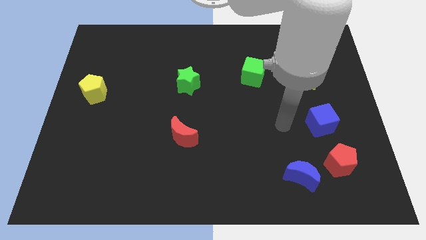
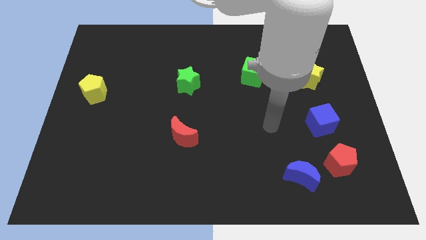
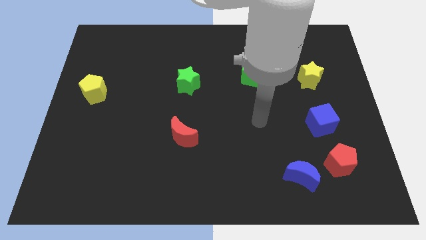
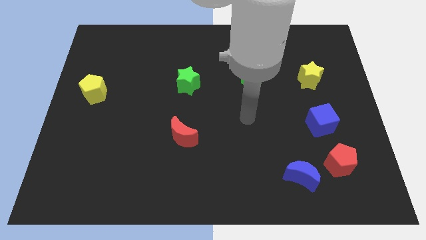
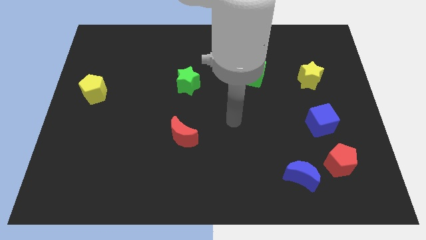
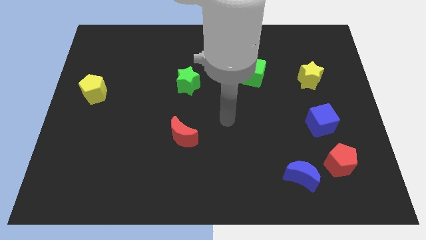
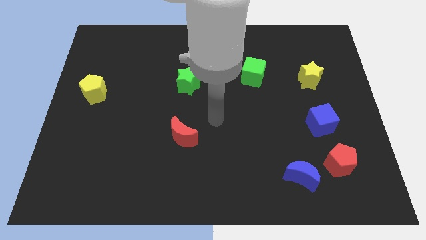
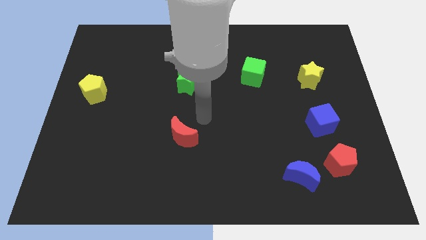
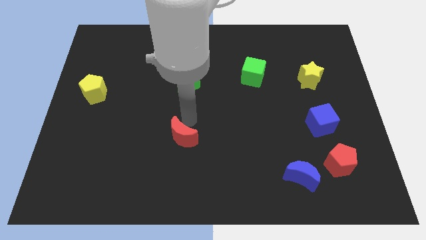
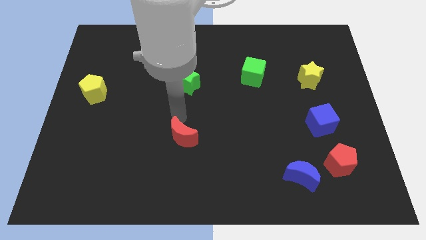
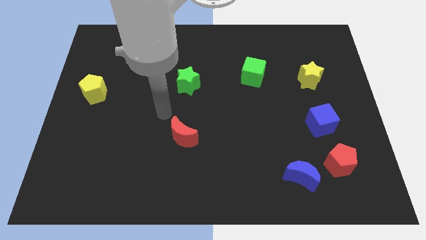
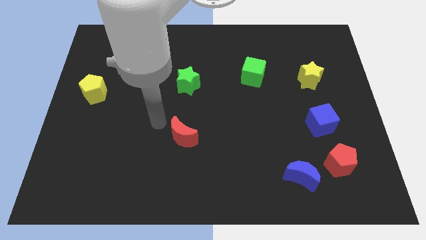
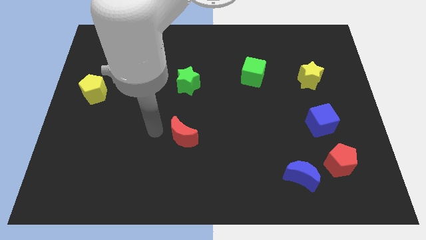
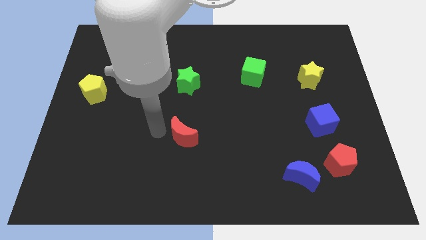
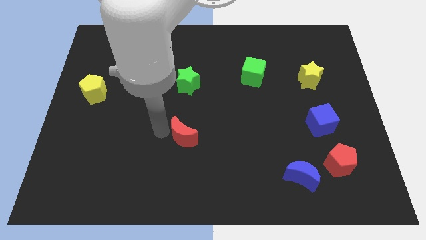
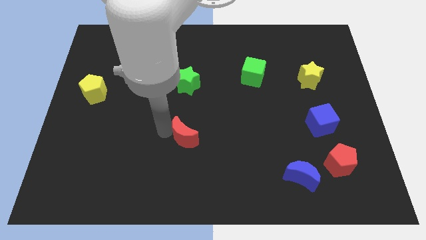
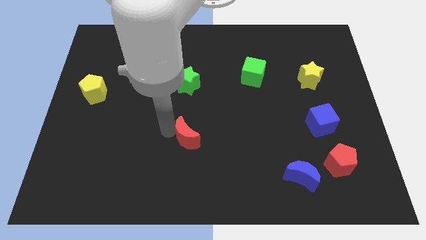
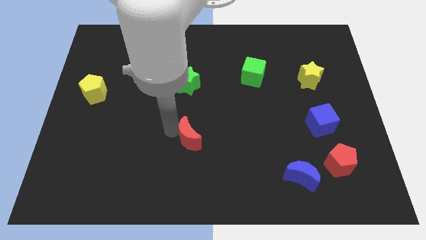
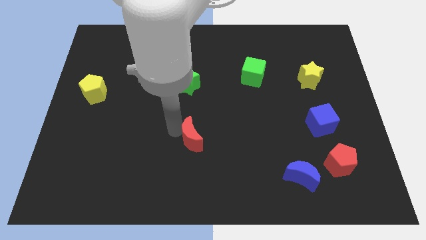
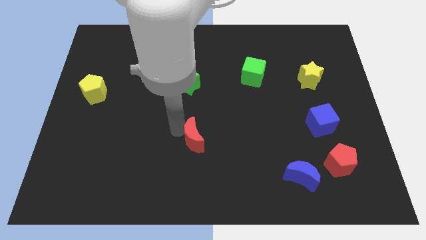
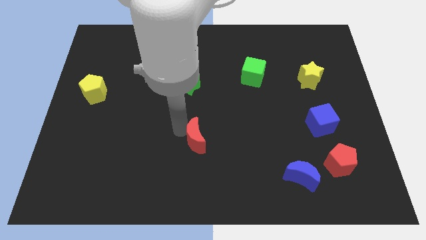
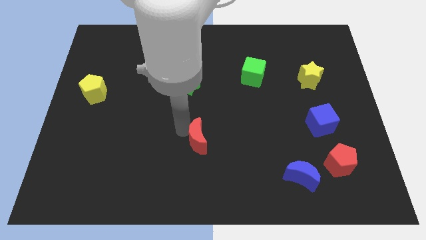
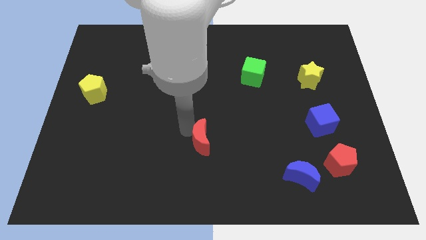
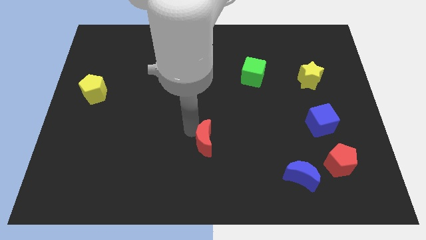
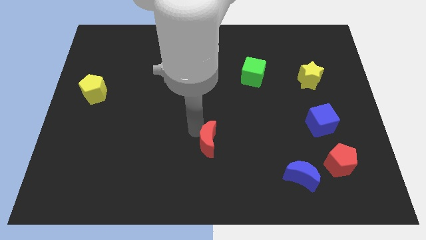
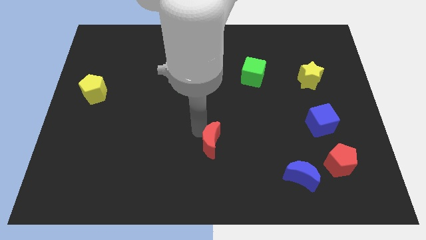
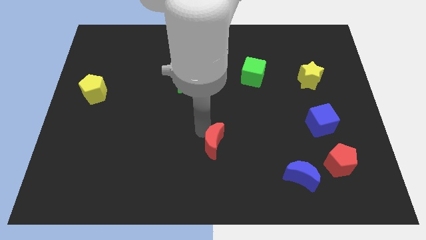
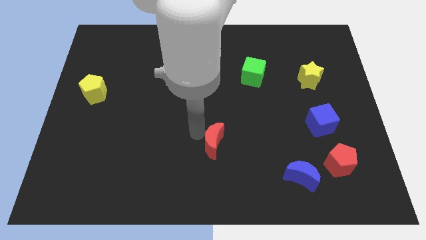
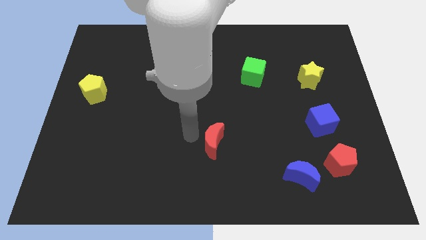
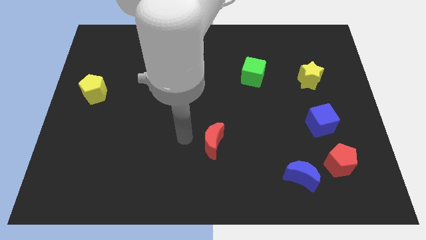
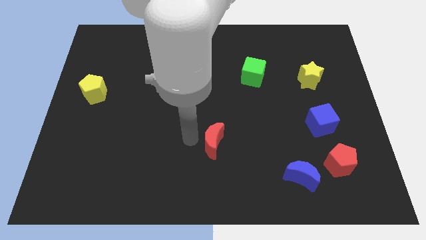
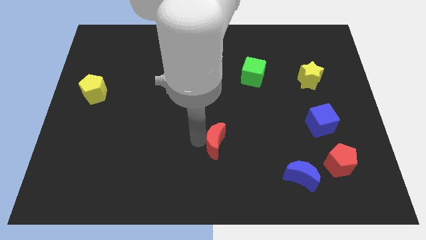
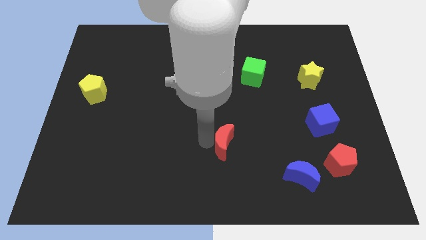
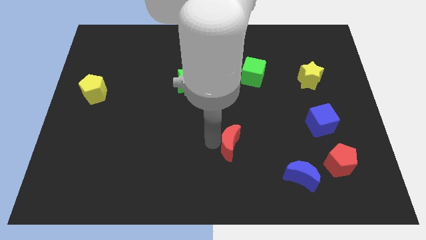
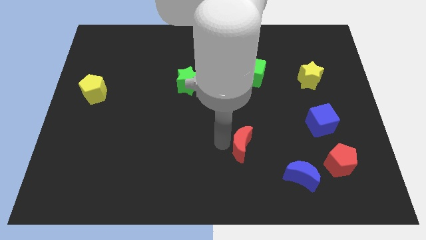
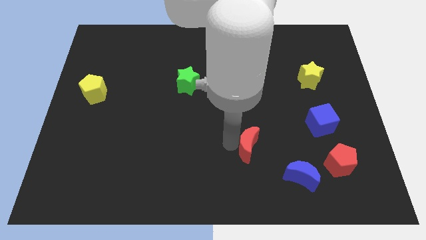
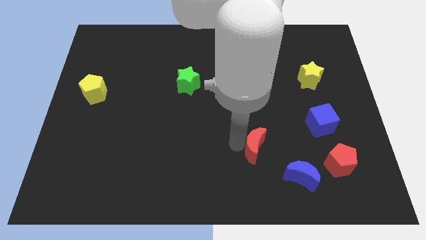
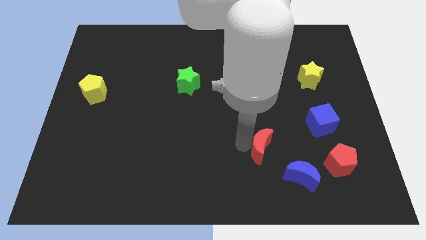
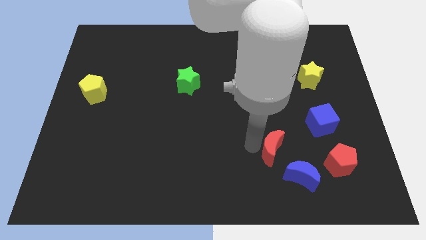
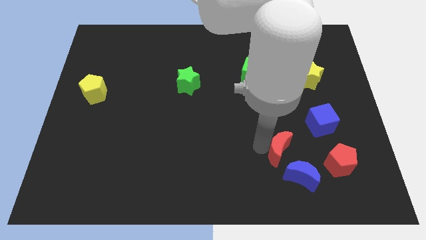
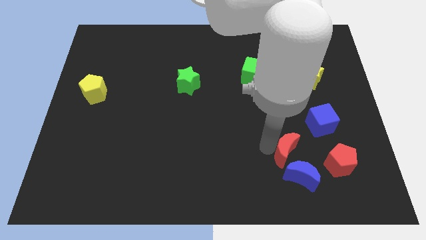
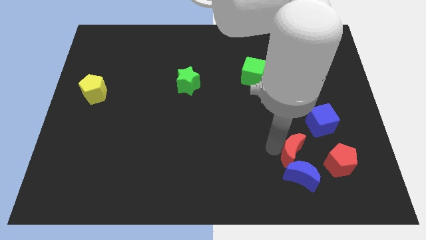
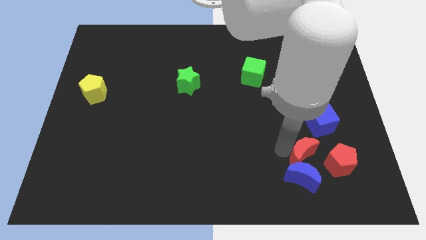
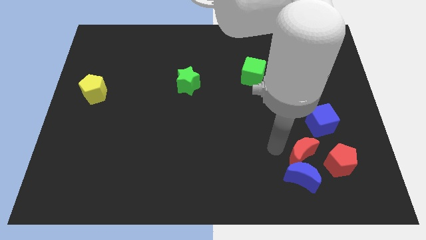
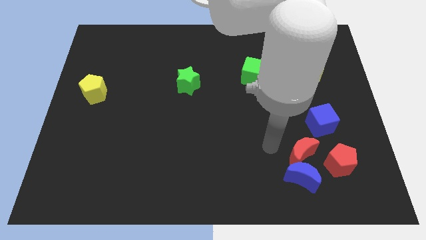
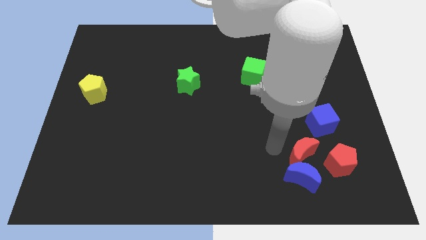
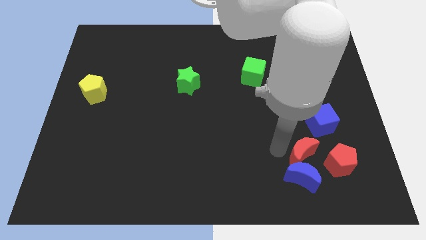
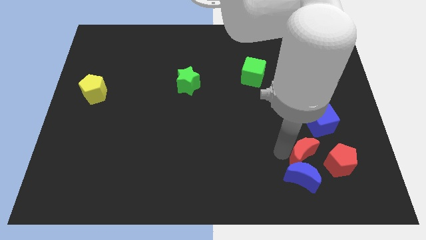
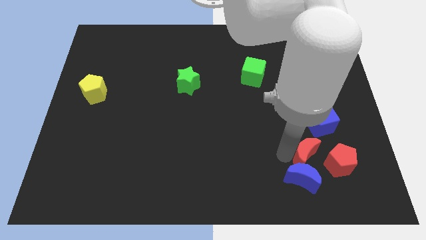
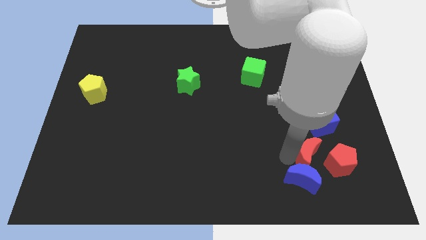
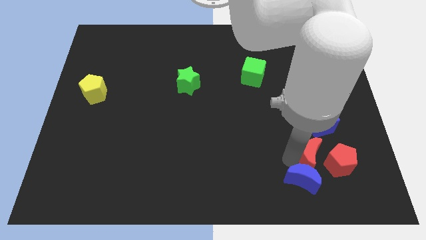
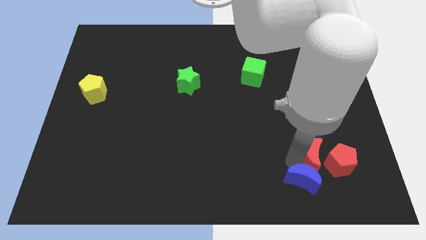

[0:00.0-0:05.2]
move the red moon towards the red pentagon

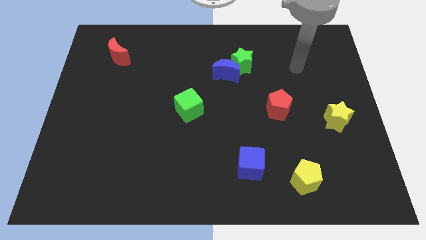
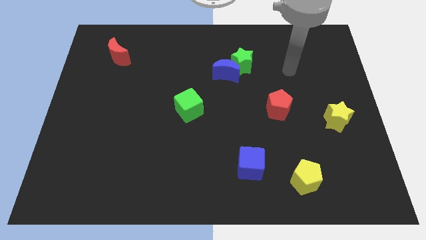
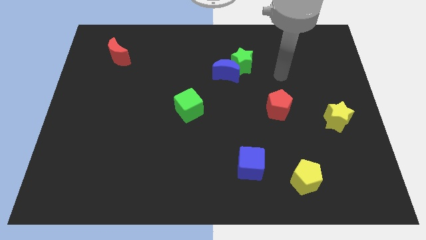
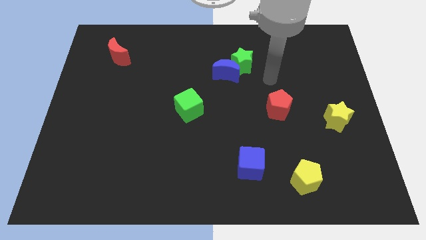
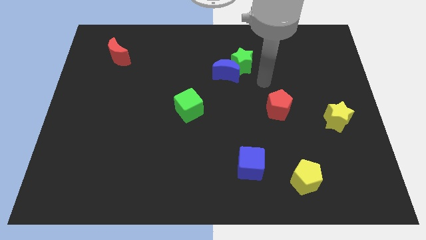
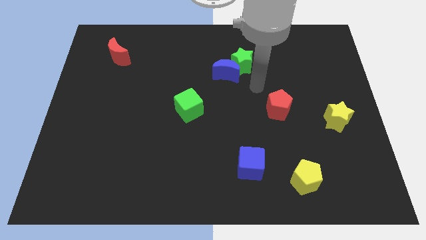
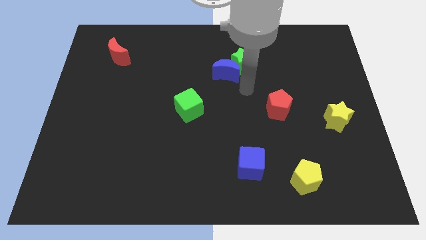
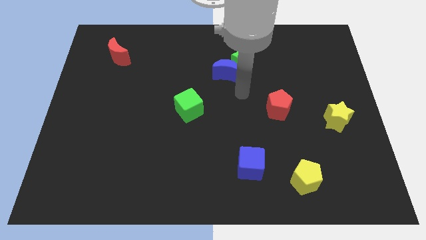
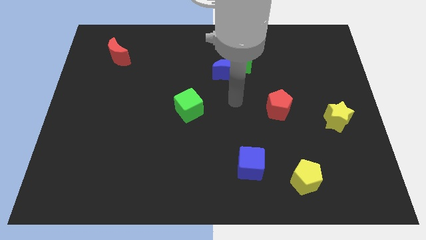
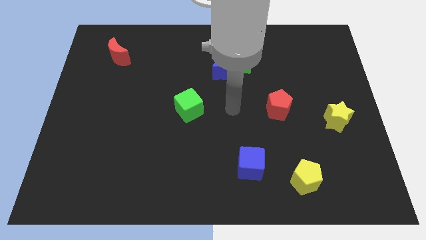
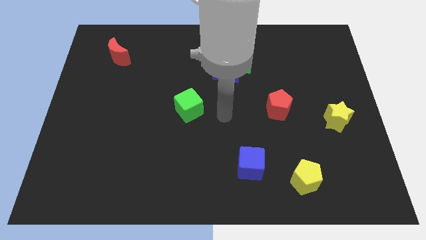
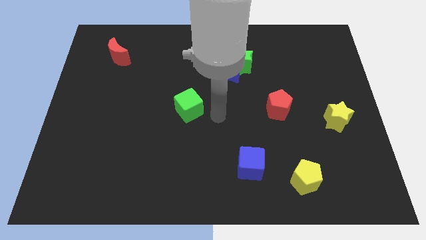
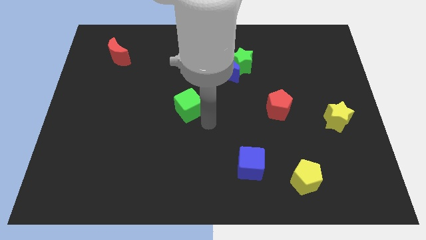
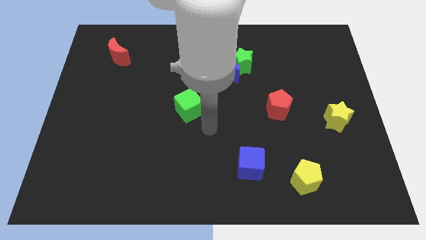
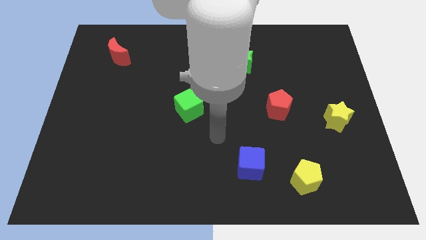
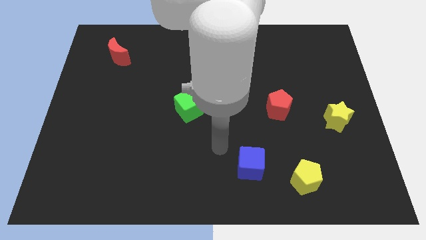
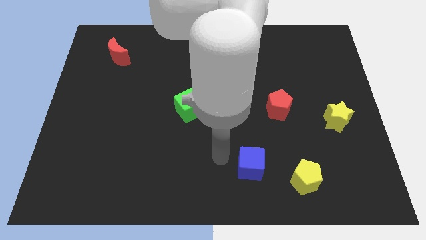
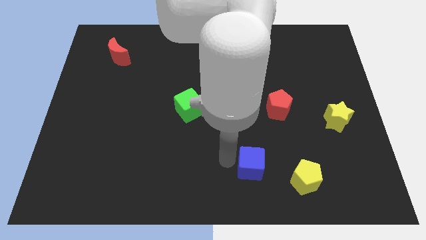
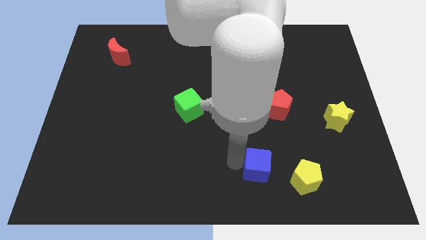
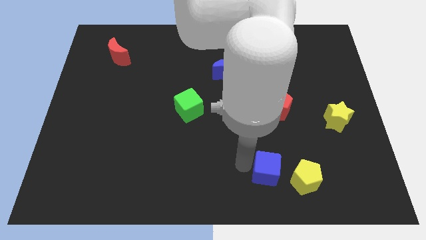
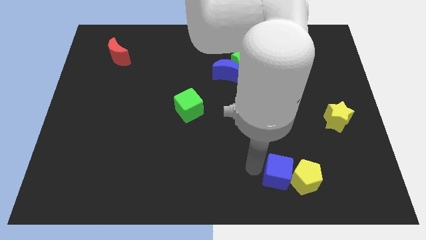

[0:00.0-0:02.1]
move the blue cube close to the yellow pentagon
